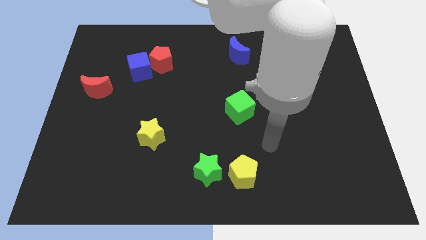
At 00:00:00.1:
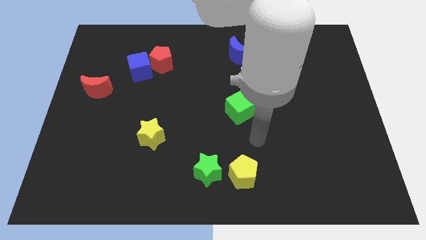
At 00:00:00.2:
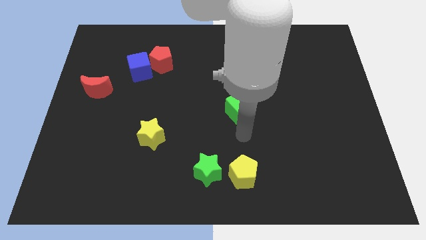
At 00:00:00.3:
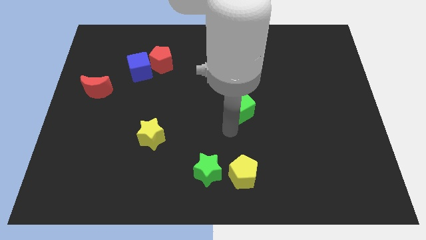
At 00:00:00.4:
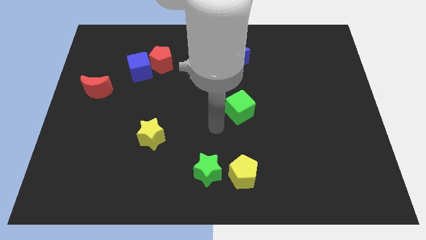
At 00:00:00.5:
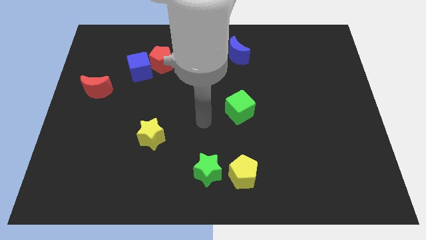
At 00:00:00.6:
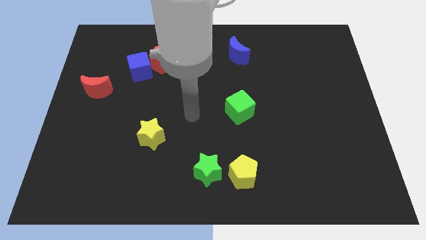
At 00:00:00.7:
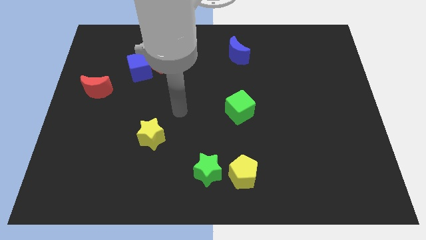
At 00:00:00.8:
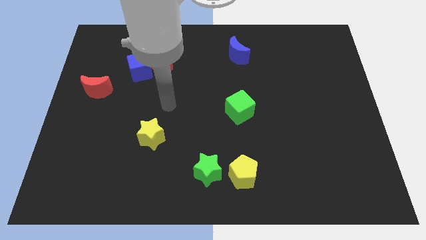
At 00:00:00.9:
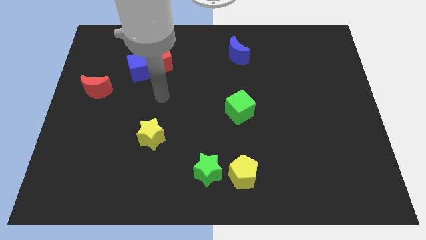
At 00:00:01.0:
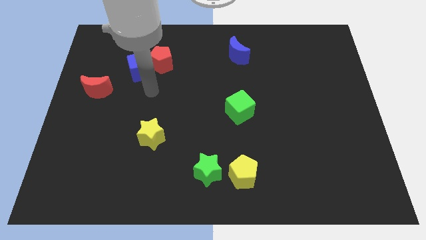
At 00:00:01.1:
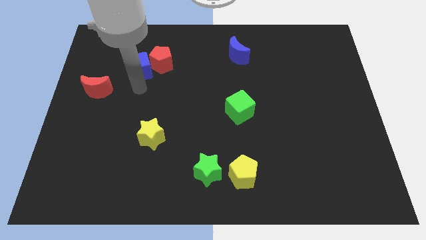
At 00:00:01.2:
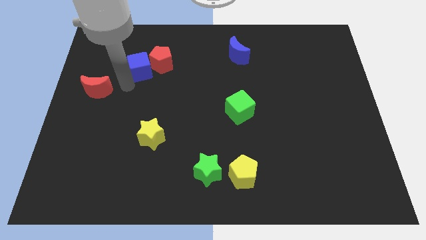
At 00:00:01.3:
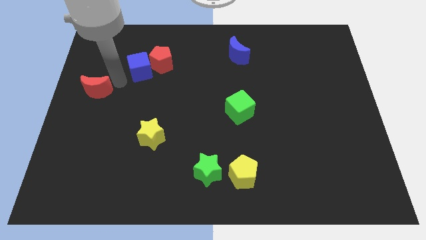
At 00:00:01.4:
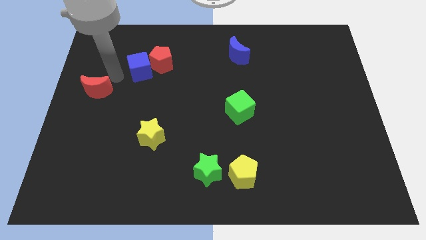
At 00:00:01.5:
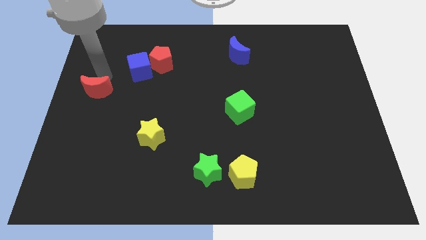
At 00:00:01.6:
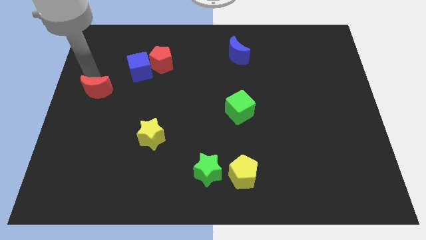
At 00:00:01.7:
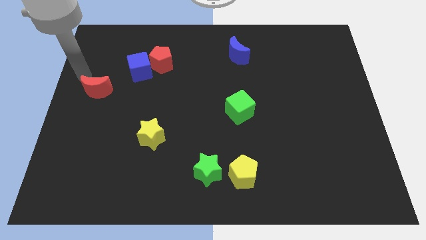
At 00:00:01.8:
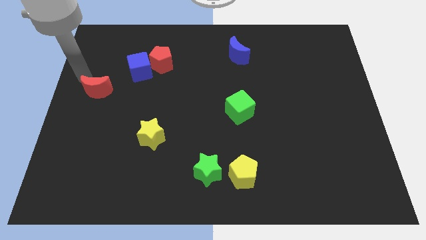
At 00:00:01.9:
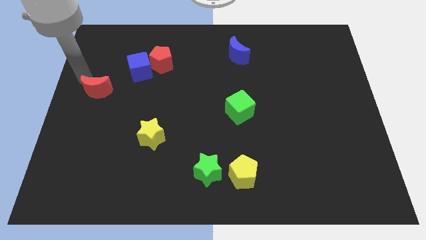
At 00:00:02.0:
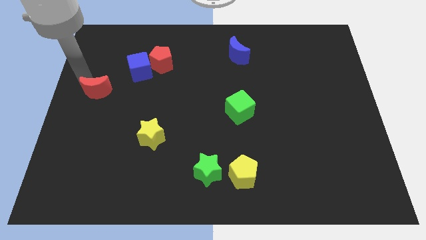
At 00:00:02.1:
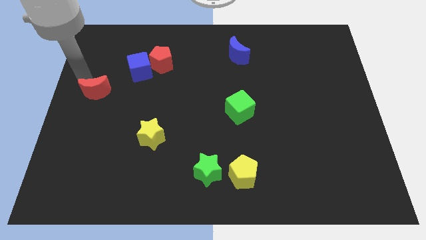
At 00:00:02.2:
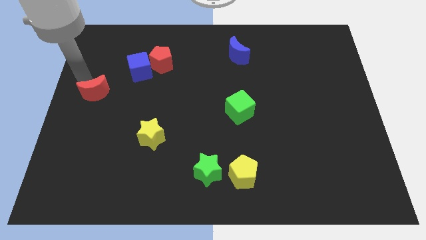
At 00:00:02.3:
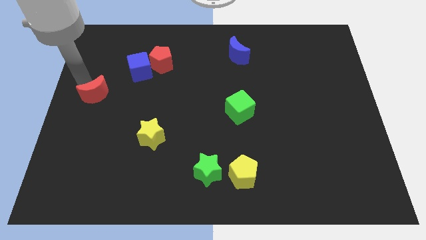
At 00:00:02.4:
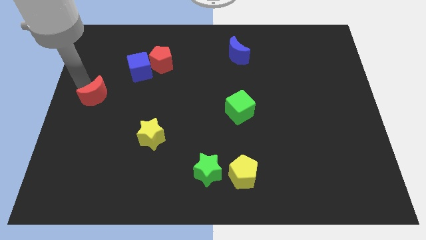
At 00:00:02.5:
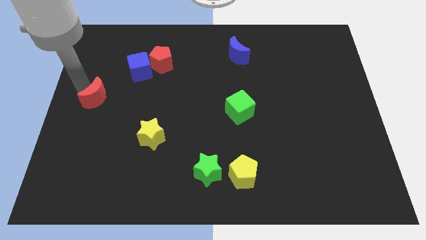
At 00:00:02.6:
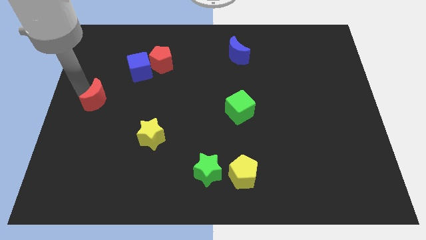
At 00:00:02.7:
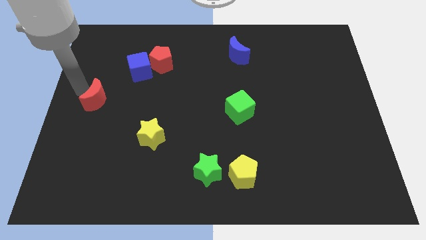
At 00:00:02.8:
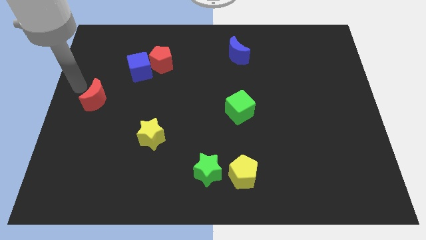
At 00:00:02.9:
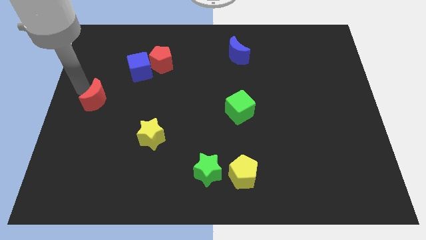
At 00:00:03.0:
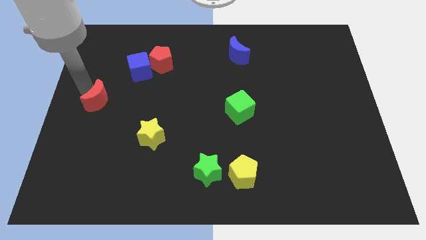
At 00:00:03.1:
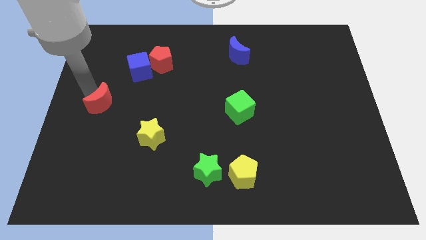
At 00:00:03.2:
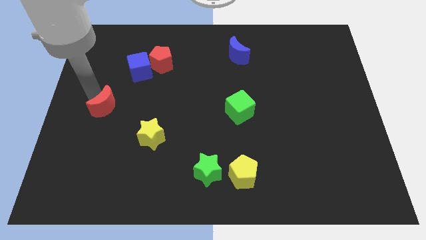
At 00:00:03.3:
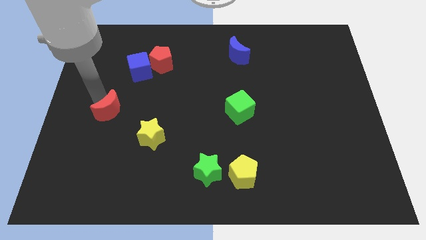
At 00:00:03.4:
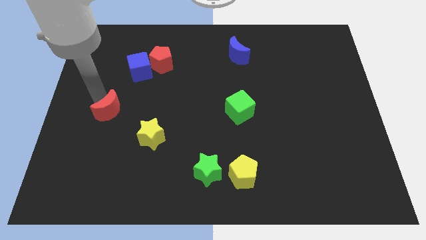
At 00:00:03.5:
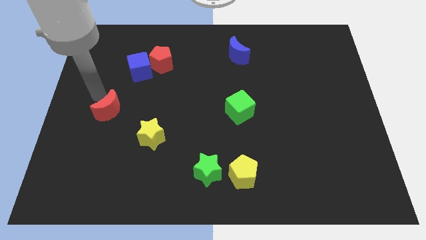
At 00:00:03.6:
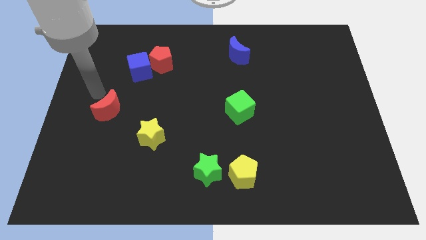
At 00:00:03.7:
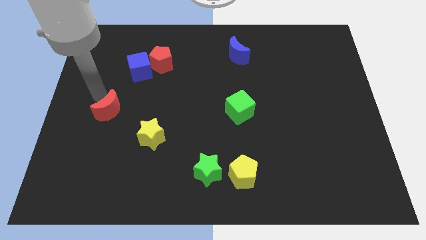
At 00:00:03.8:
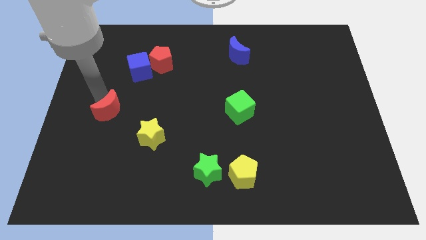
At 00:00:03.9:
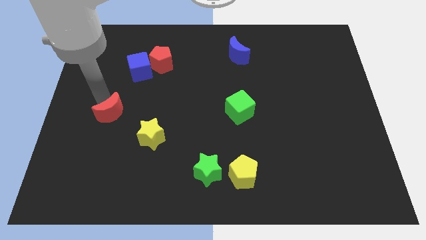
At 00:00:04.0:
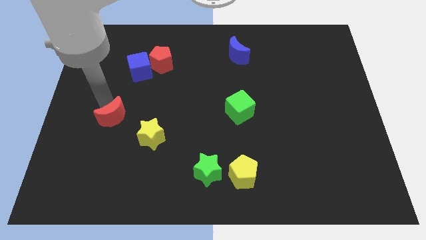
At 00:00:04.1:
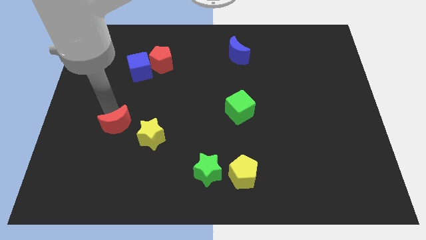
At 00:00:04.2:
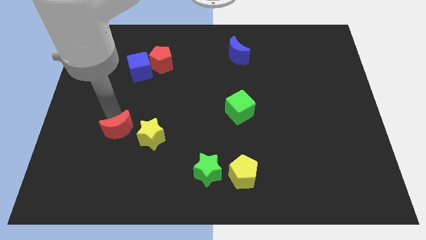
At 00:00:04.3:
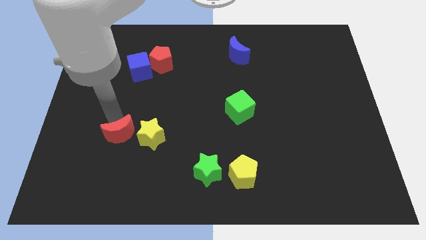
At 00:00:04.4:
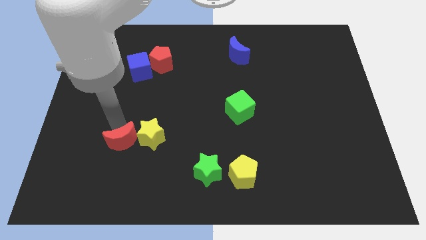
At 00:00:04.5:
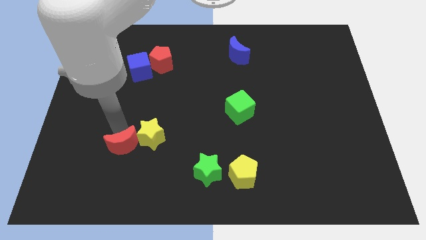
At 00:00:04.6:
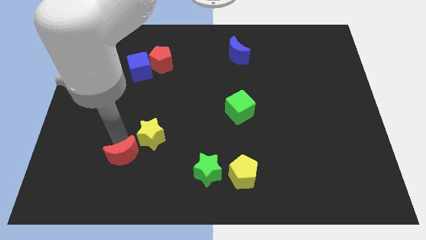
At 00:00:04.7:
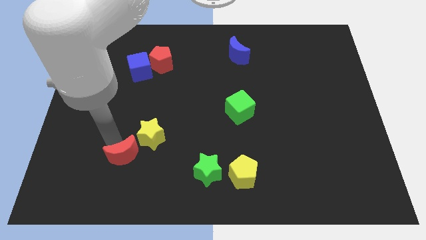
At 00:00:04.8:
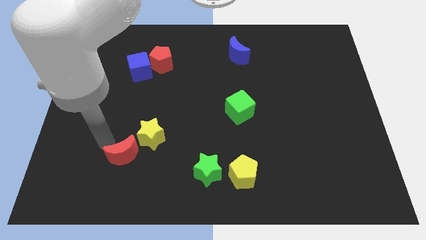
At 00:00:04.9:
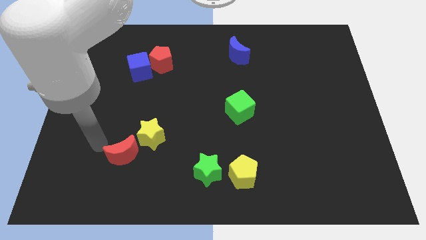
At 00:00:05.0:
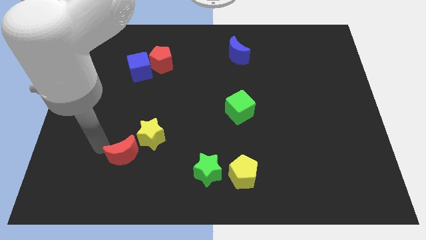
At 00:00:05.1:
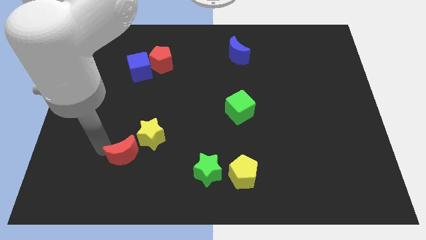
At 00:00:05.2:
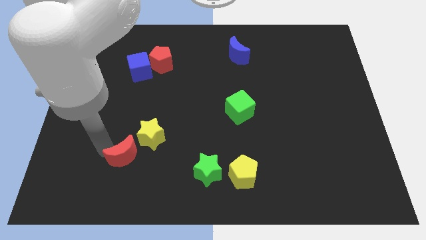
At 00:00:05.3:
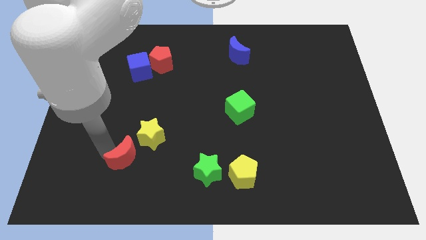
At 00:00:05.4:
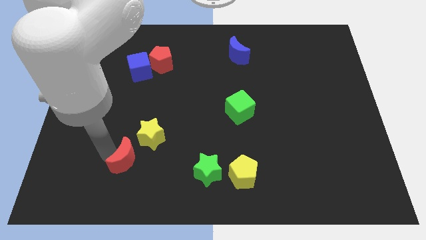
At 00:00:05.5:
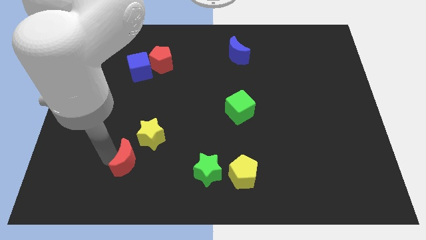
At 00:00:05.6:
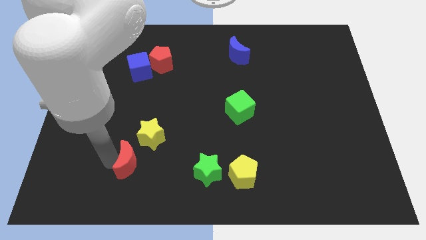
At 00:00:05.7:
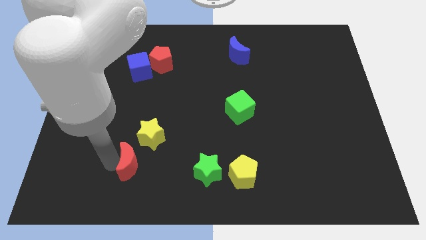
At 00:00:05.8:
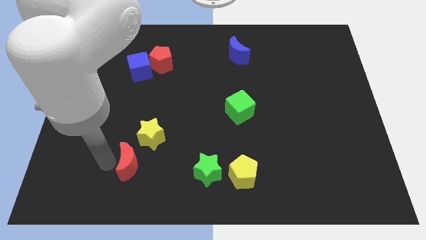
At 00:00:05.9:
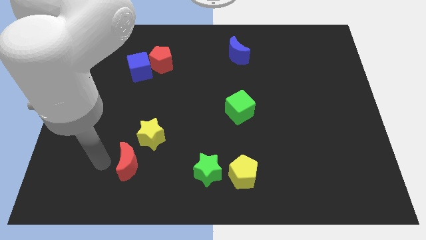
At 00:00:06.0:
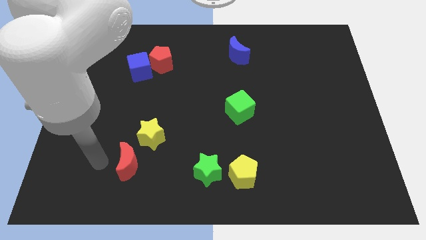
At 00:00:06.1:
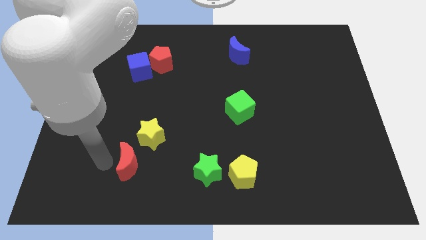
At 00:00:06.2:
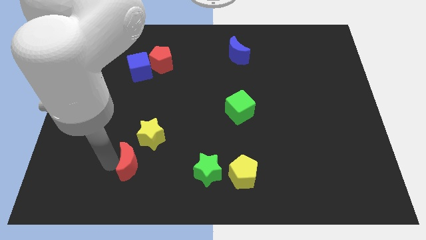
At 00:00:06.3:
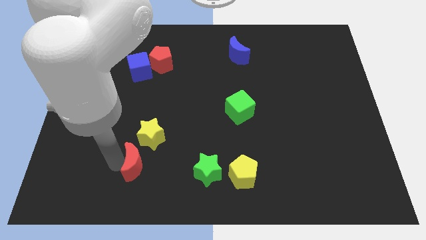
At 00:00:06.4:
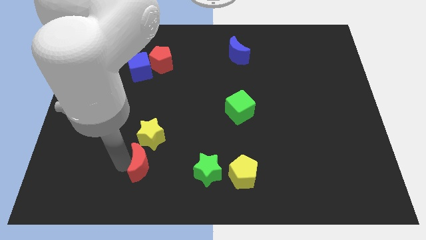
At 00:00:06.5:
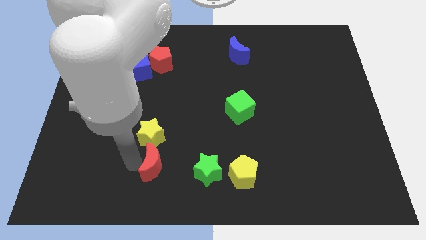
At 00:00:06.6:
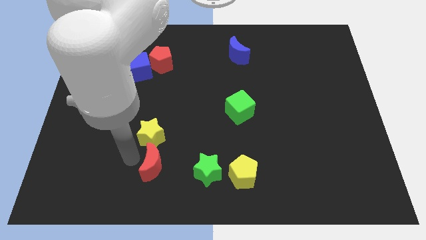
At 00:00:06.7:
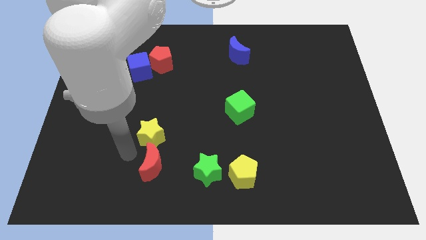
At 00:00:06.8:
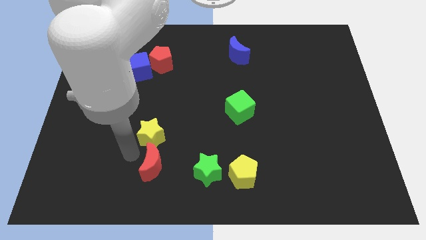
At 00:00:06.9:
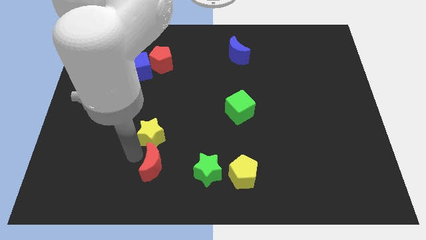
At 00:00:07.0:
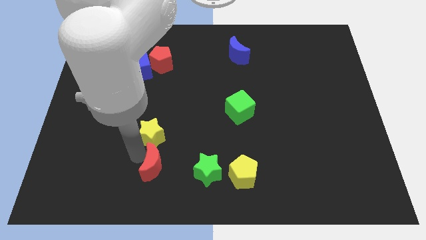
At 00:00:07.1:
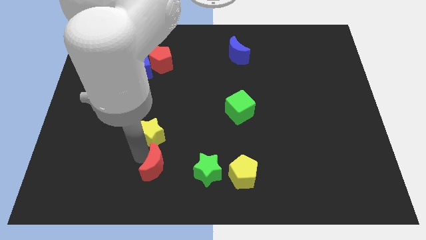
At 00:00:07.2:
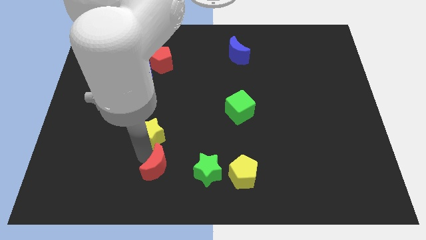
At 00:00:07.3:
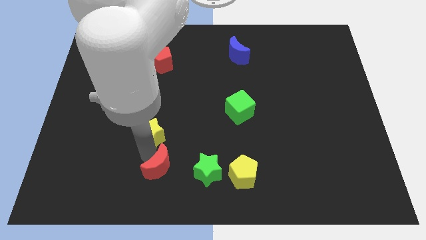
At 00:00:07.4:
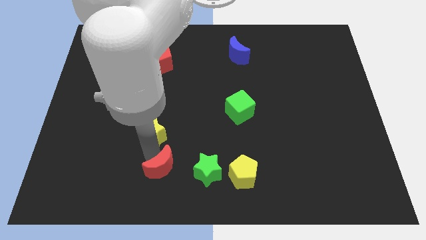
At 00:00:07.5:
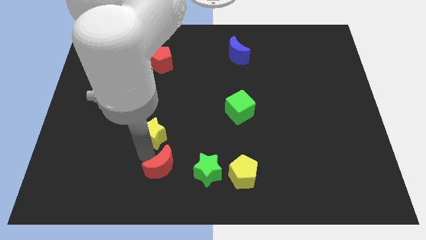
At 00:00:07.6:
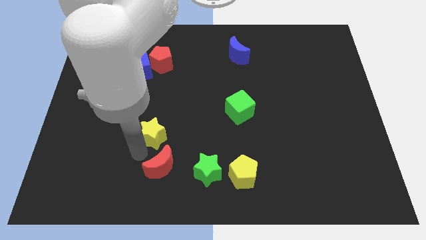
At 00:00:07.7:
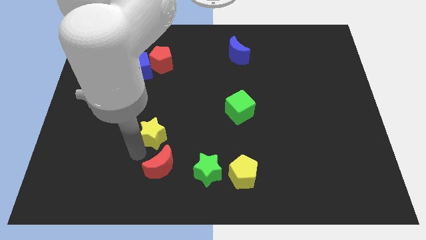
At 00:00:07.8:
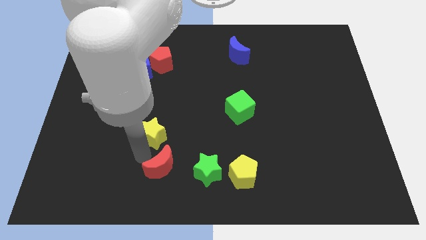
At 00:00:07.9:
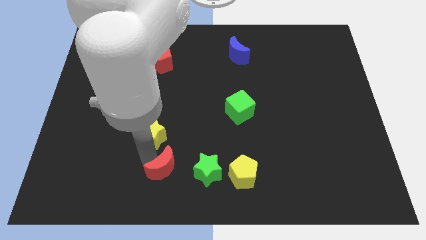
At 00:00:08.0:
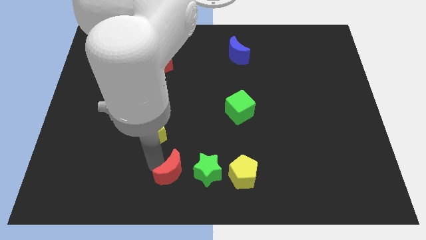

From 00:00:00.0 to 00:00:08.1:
move the red moon to the bottom
